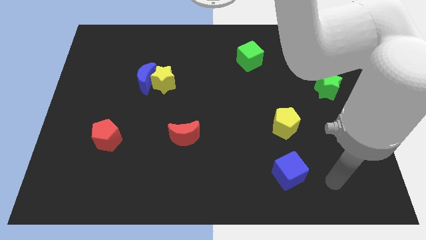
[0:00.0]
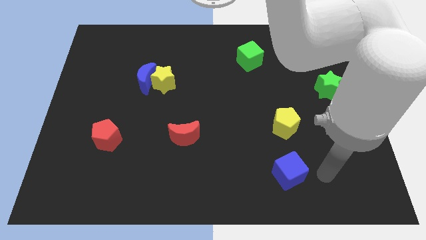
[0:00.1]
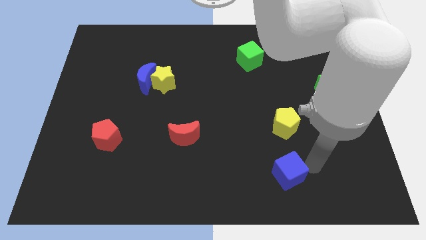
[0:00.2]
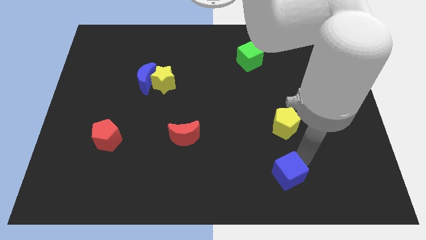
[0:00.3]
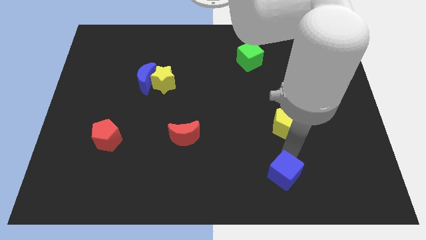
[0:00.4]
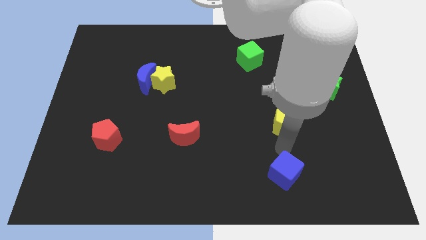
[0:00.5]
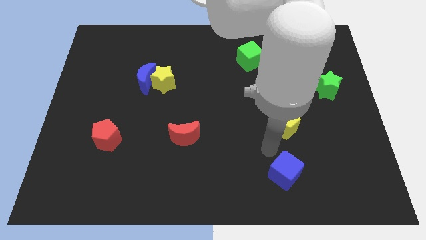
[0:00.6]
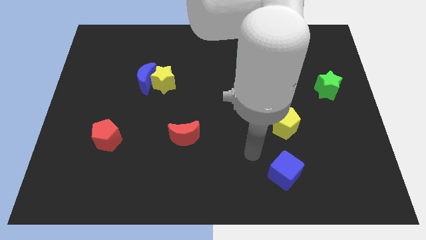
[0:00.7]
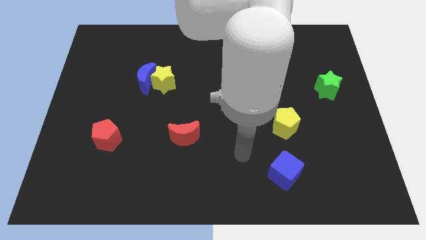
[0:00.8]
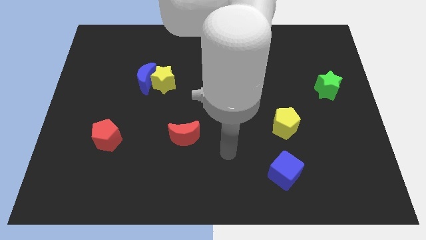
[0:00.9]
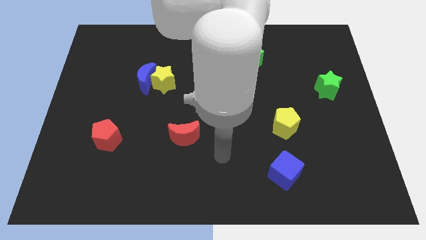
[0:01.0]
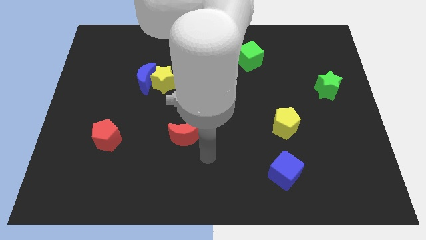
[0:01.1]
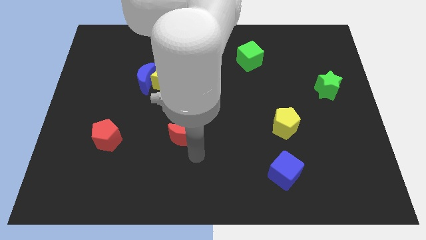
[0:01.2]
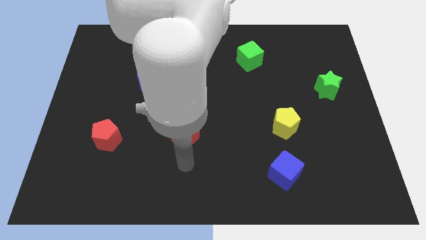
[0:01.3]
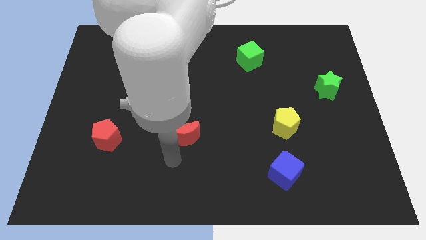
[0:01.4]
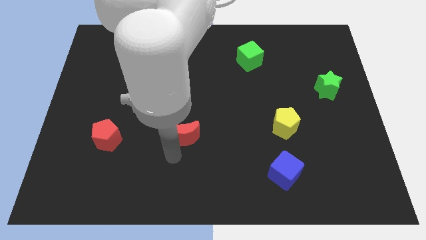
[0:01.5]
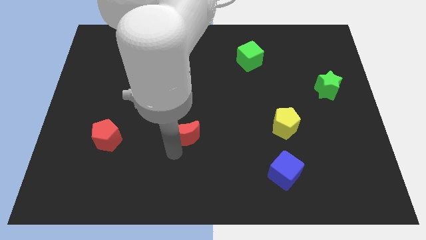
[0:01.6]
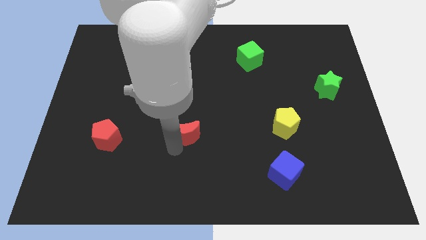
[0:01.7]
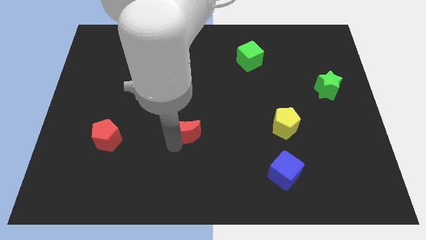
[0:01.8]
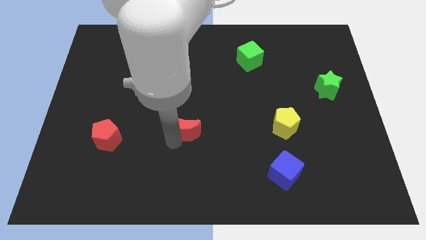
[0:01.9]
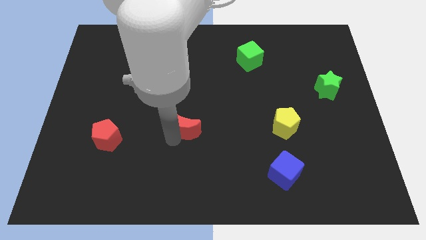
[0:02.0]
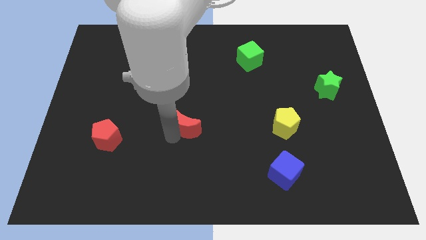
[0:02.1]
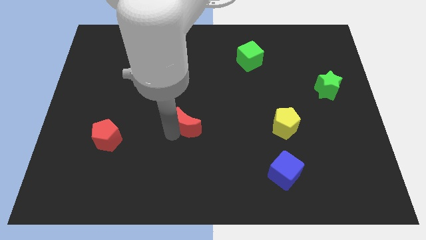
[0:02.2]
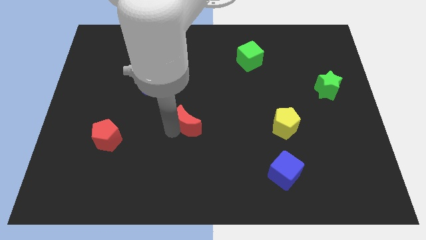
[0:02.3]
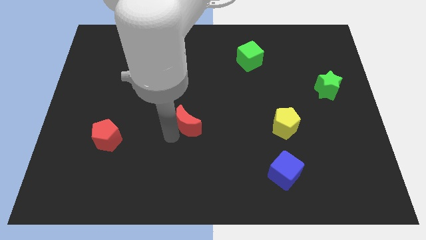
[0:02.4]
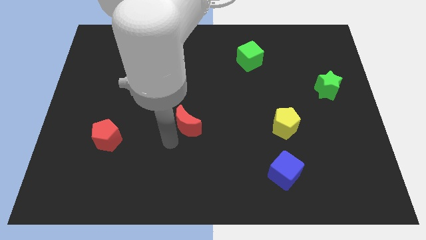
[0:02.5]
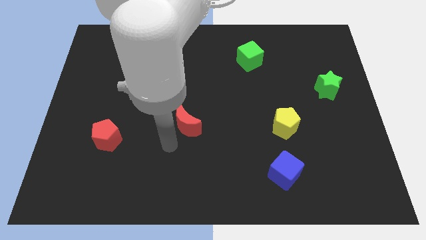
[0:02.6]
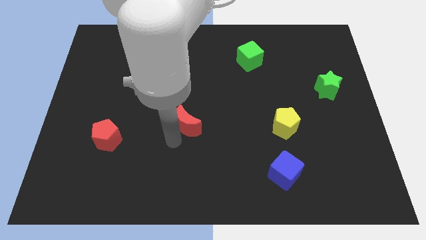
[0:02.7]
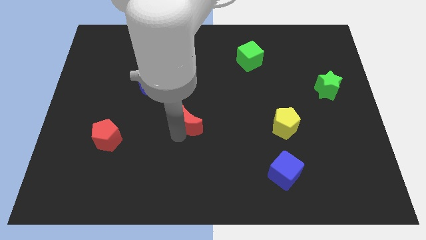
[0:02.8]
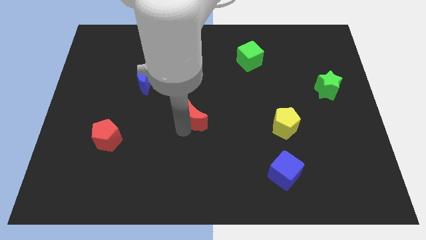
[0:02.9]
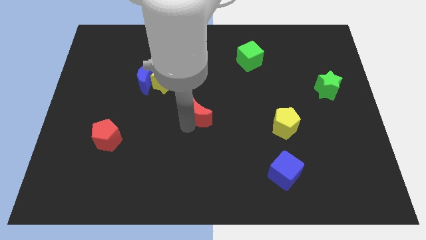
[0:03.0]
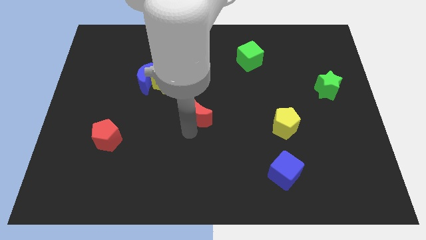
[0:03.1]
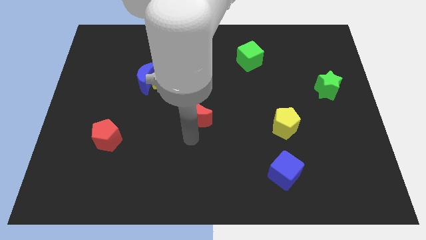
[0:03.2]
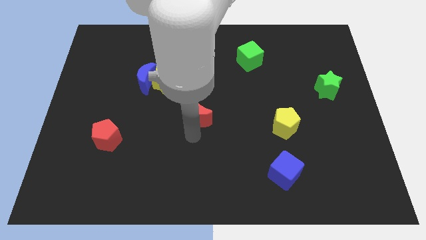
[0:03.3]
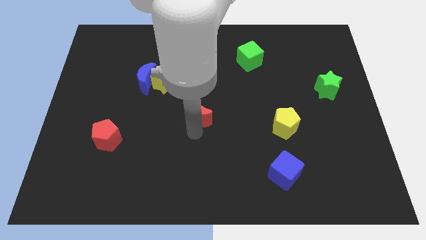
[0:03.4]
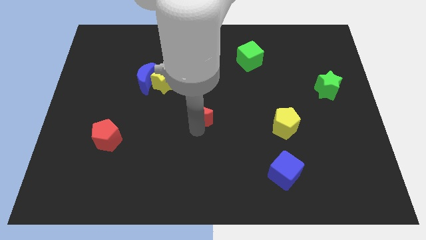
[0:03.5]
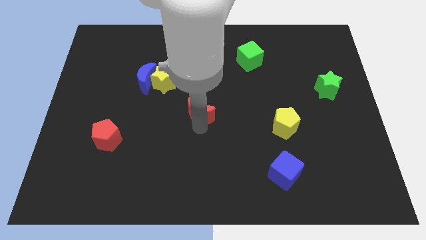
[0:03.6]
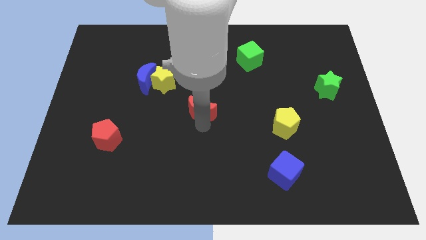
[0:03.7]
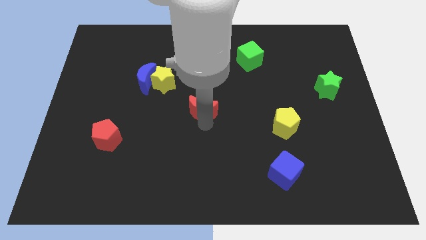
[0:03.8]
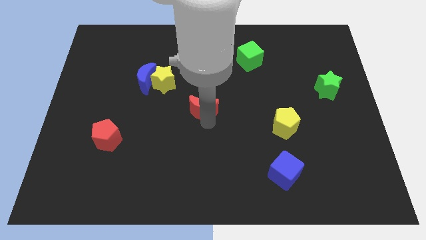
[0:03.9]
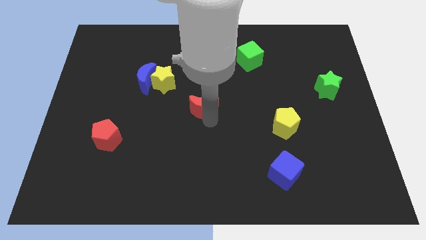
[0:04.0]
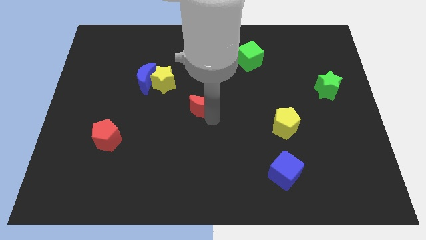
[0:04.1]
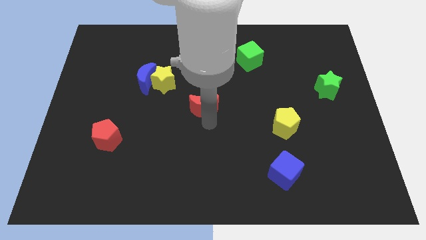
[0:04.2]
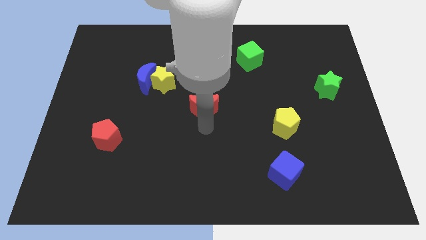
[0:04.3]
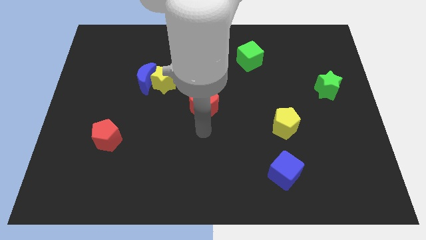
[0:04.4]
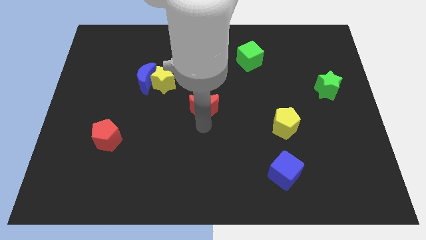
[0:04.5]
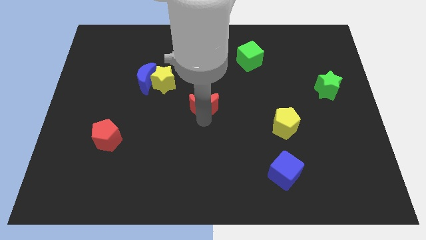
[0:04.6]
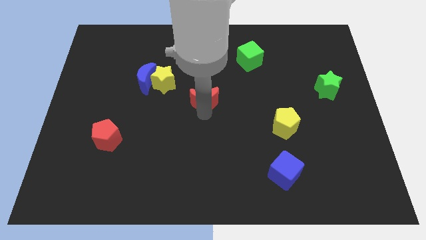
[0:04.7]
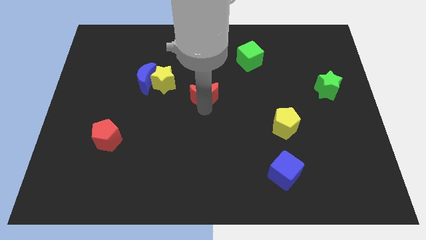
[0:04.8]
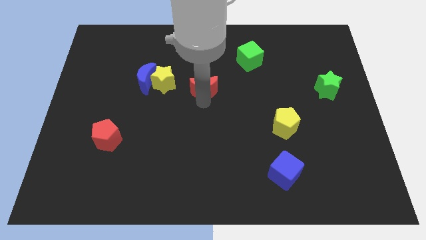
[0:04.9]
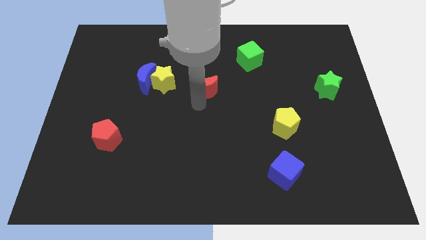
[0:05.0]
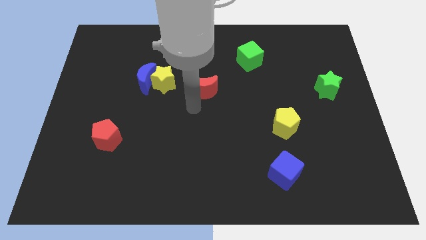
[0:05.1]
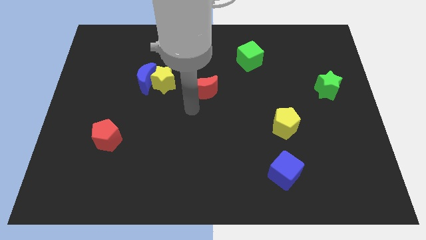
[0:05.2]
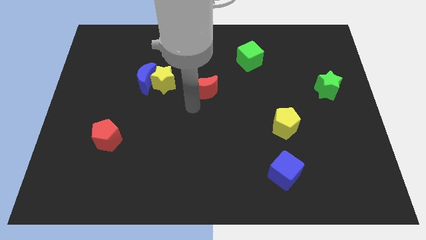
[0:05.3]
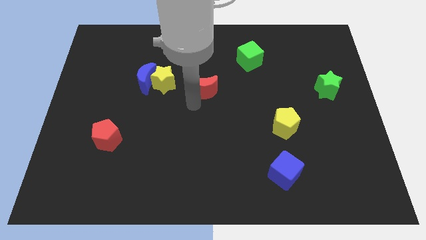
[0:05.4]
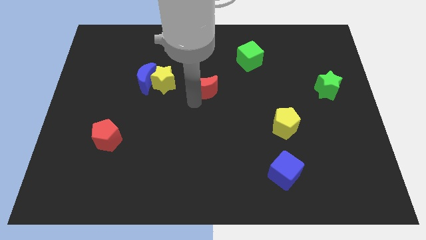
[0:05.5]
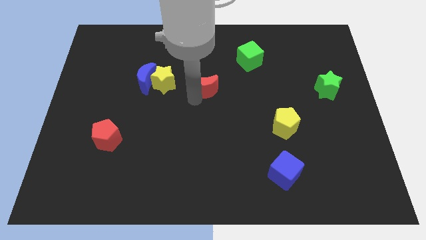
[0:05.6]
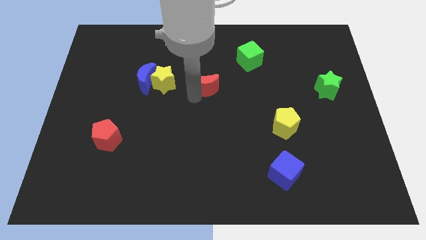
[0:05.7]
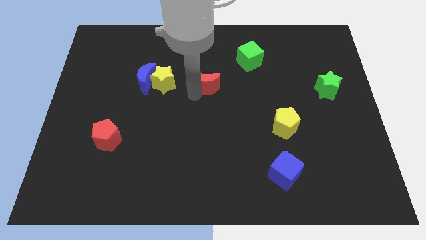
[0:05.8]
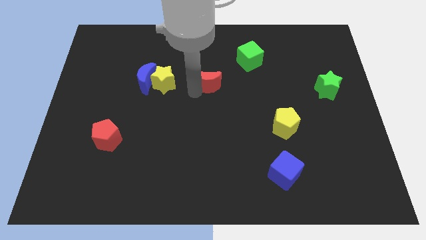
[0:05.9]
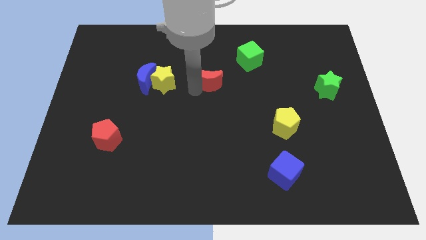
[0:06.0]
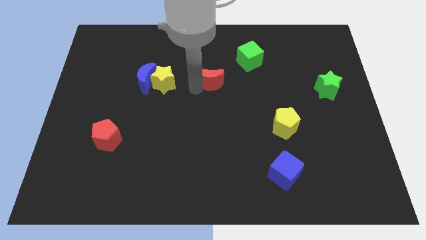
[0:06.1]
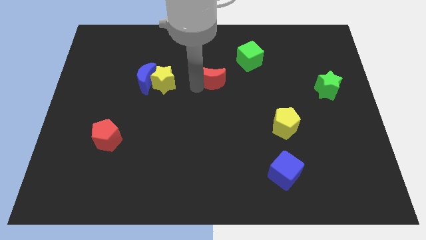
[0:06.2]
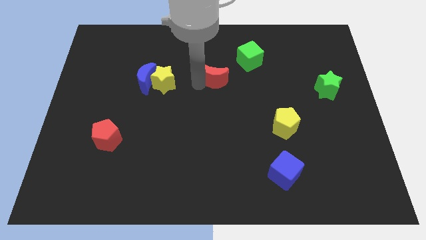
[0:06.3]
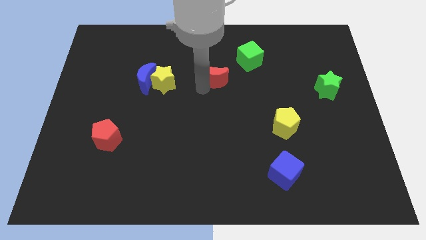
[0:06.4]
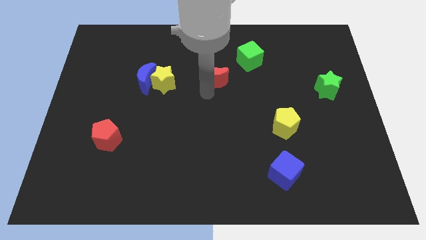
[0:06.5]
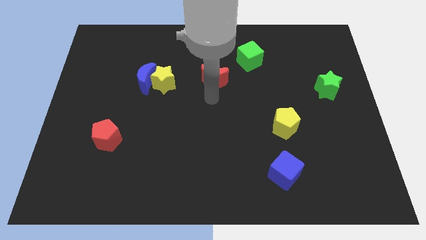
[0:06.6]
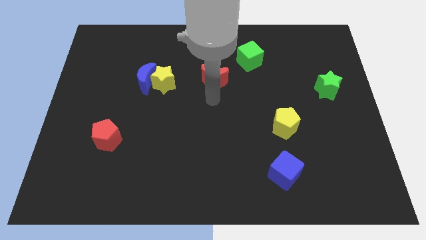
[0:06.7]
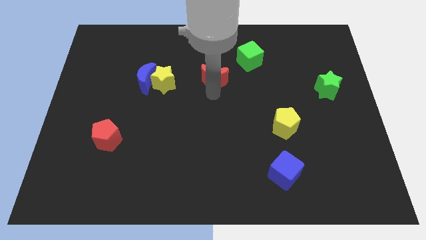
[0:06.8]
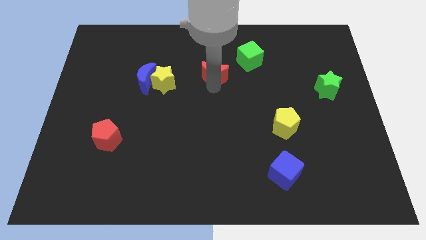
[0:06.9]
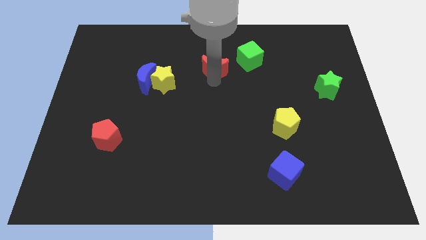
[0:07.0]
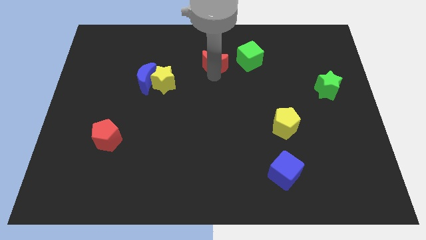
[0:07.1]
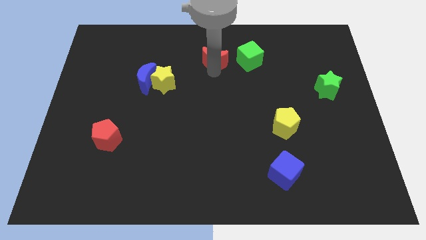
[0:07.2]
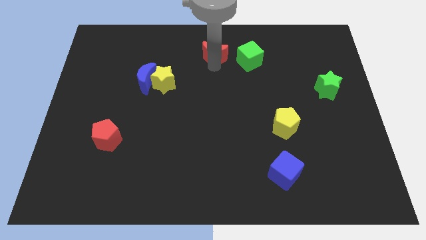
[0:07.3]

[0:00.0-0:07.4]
push the red moon to the top
